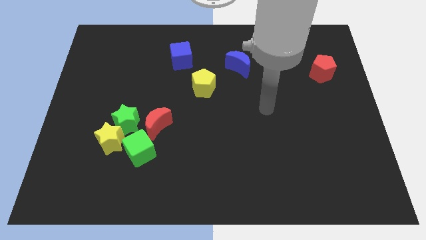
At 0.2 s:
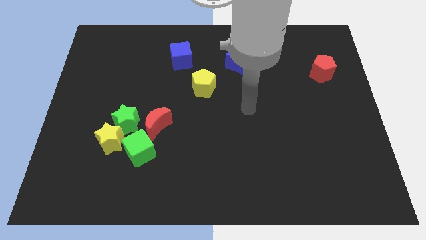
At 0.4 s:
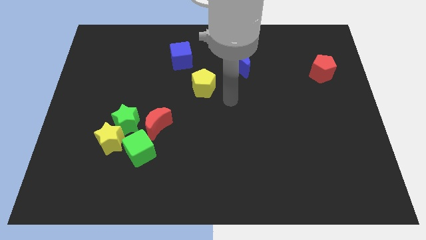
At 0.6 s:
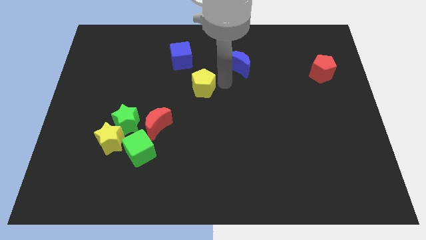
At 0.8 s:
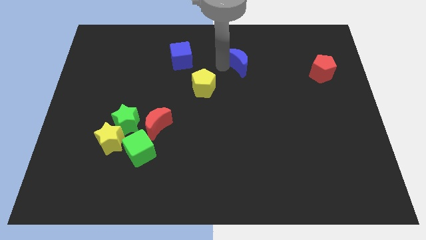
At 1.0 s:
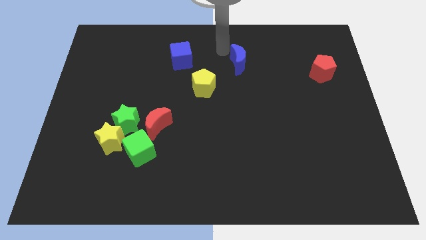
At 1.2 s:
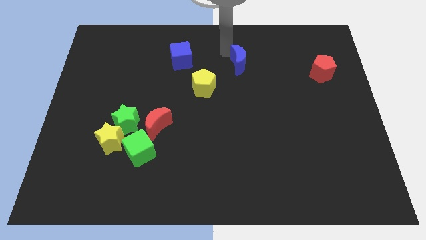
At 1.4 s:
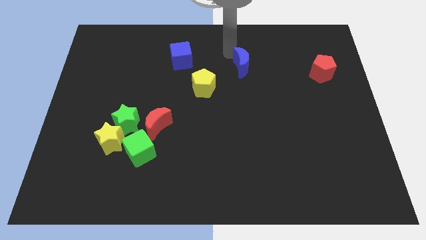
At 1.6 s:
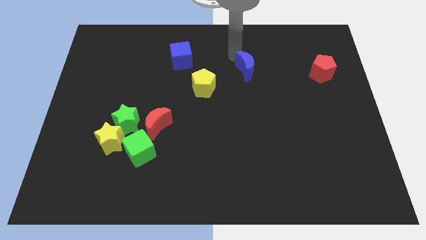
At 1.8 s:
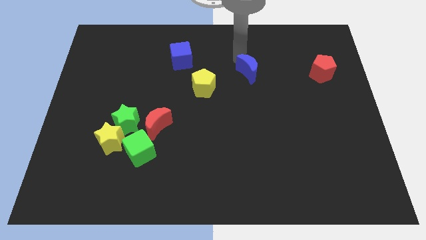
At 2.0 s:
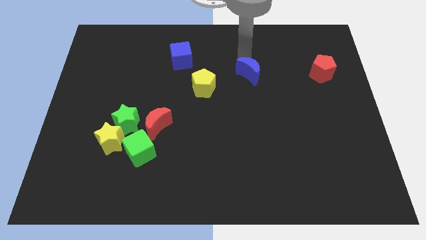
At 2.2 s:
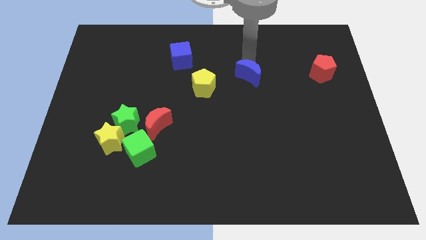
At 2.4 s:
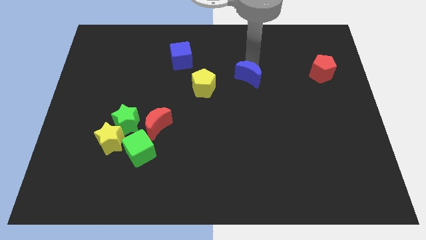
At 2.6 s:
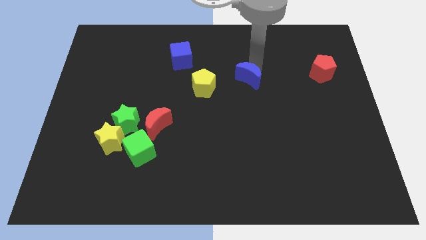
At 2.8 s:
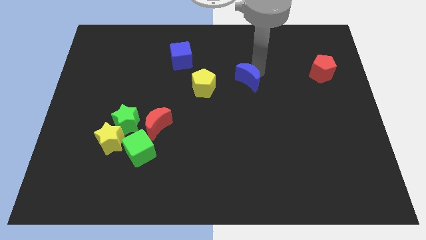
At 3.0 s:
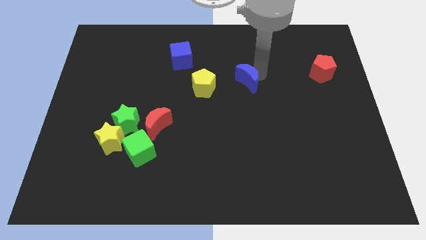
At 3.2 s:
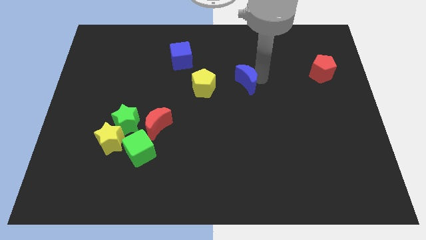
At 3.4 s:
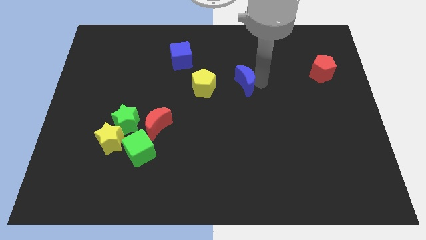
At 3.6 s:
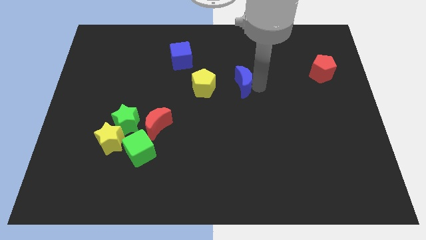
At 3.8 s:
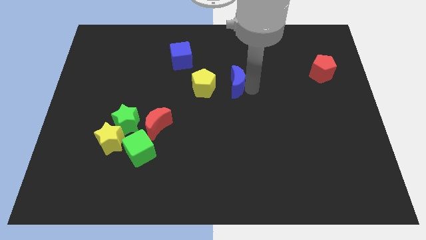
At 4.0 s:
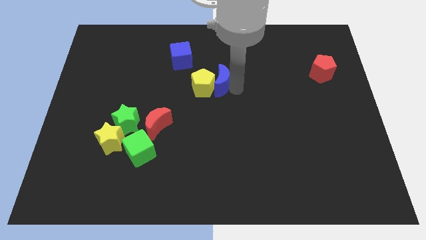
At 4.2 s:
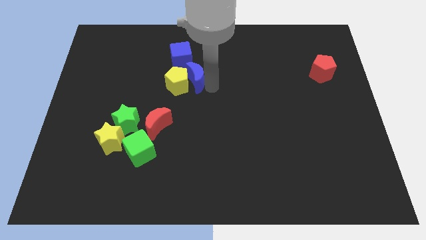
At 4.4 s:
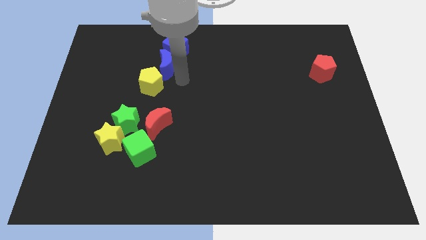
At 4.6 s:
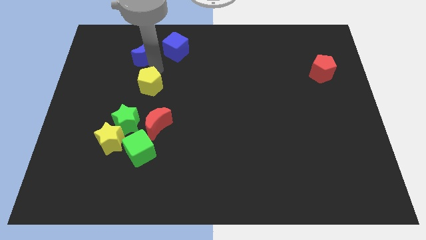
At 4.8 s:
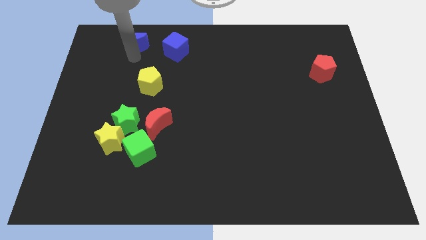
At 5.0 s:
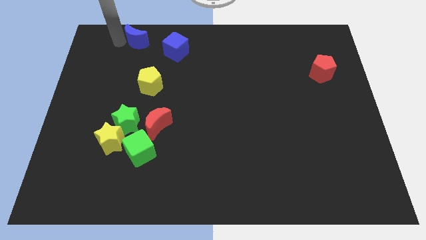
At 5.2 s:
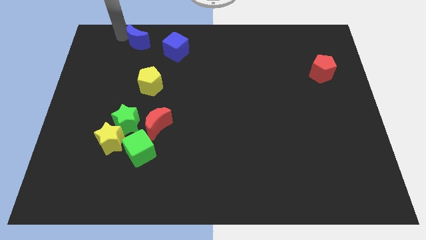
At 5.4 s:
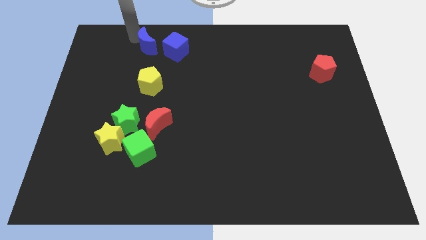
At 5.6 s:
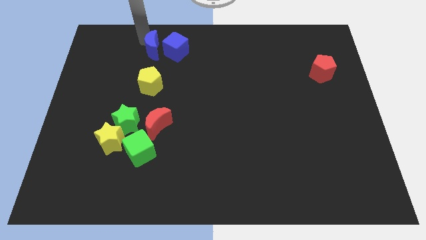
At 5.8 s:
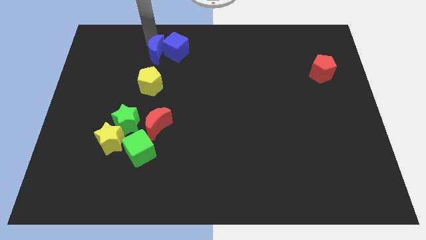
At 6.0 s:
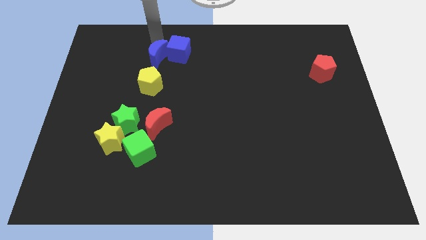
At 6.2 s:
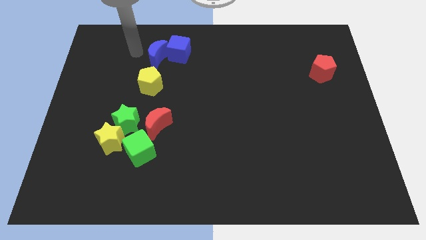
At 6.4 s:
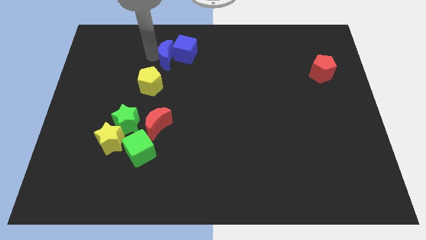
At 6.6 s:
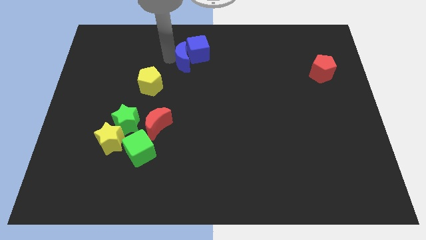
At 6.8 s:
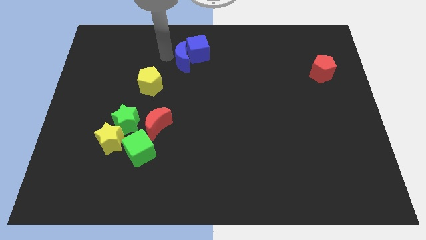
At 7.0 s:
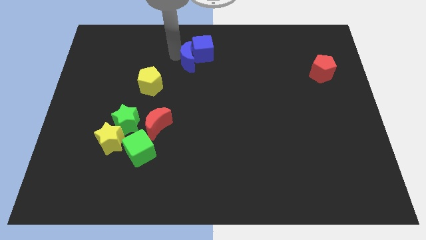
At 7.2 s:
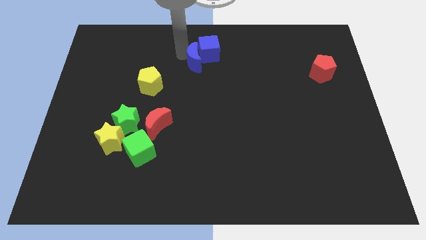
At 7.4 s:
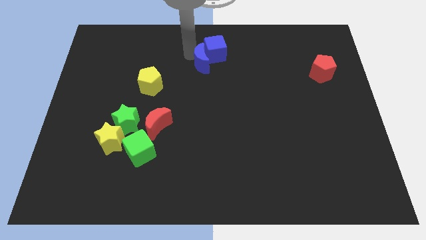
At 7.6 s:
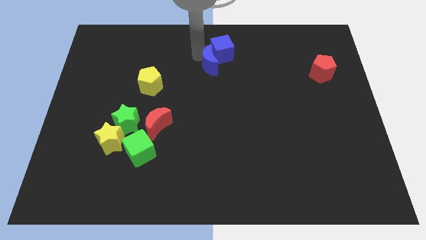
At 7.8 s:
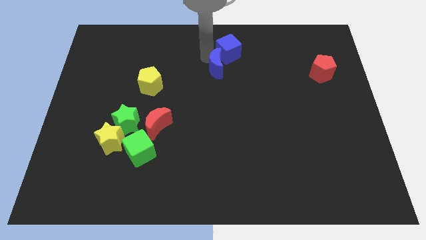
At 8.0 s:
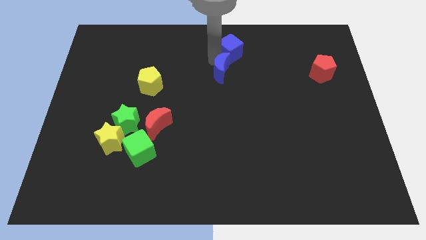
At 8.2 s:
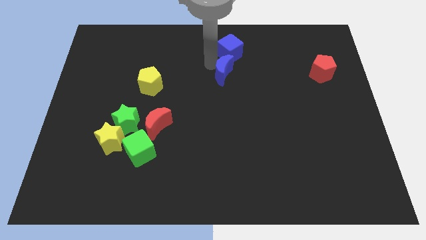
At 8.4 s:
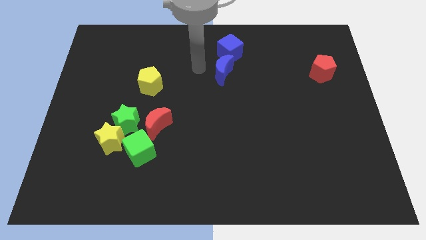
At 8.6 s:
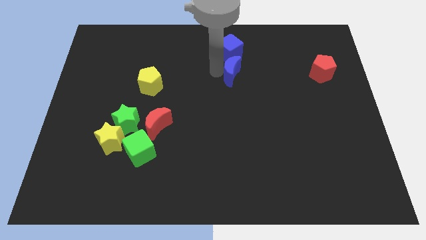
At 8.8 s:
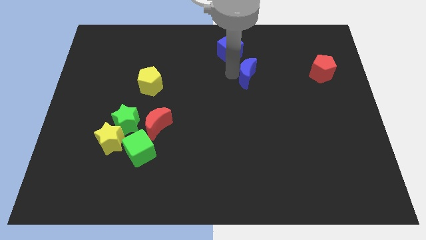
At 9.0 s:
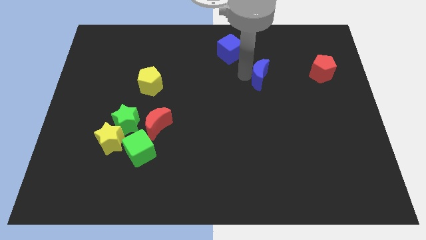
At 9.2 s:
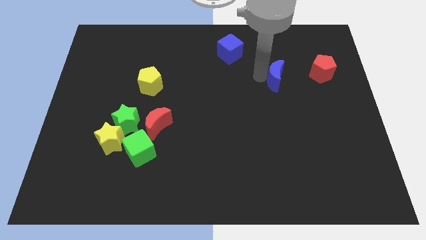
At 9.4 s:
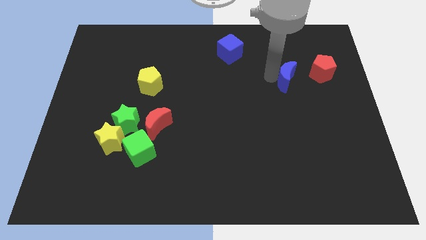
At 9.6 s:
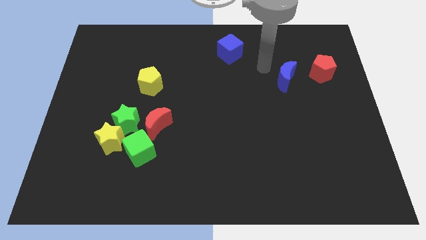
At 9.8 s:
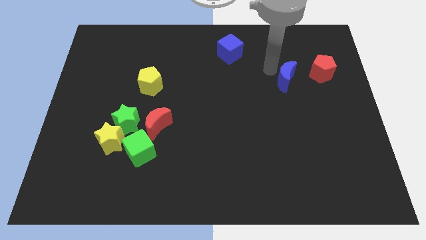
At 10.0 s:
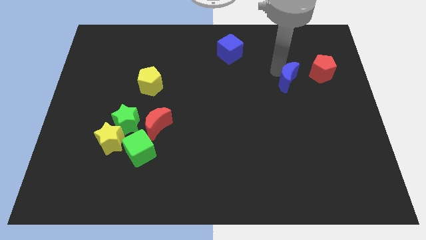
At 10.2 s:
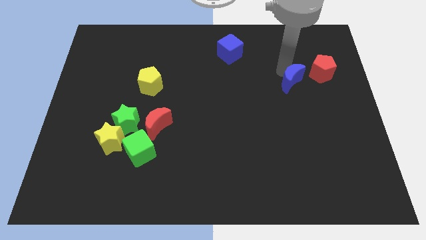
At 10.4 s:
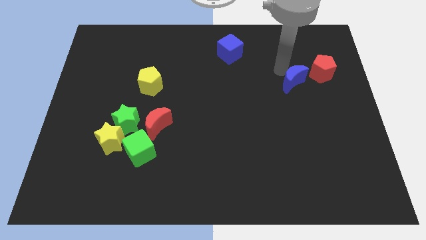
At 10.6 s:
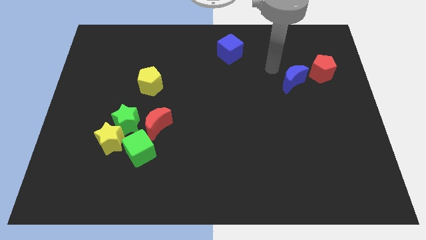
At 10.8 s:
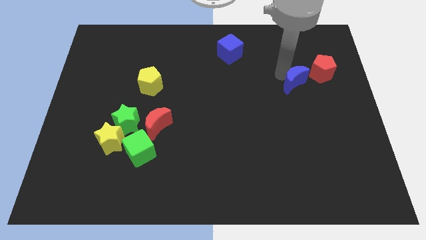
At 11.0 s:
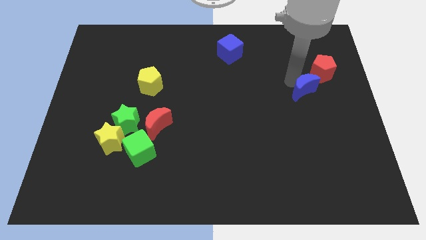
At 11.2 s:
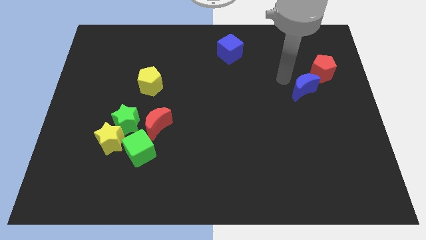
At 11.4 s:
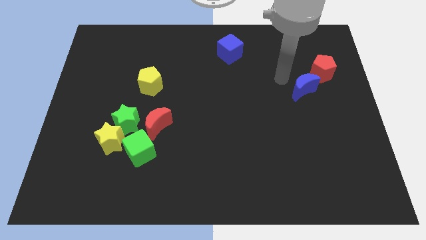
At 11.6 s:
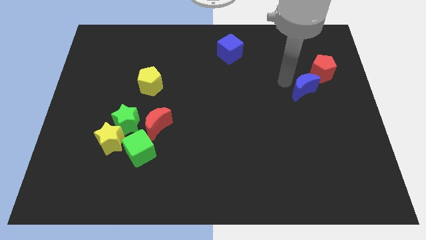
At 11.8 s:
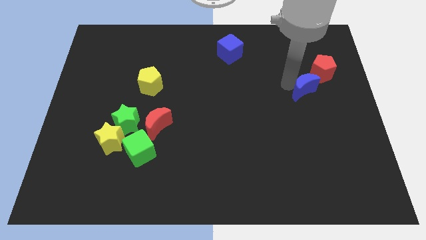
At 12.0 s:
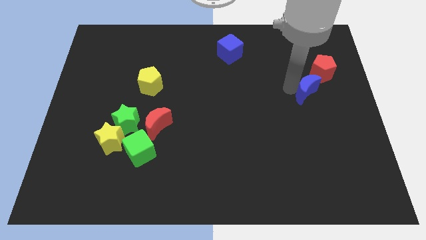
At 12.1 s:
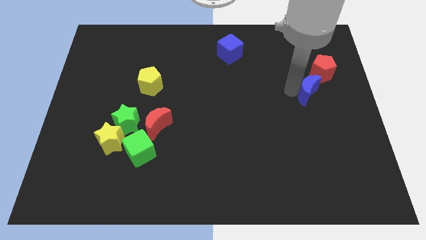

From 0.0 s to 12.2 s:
put the blue moon to the bottom side of the red pentagon

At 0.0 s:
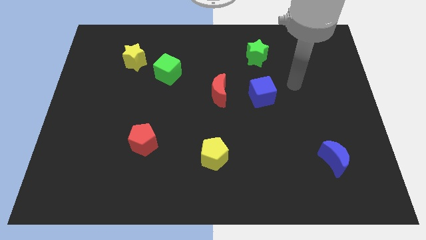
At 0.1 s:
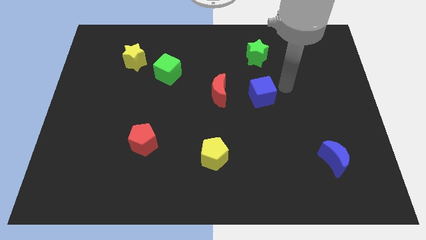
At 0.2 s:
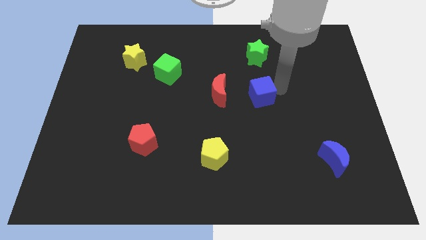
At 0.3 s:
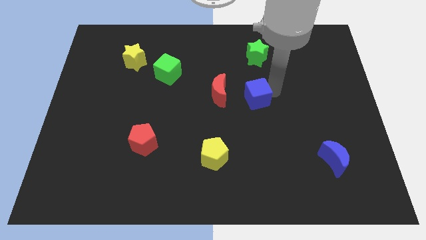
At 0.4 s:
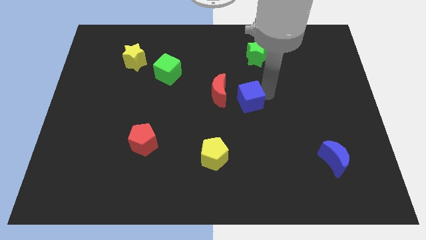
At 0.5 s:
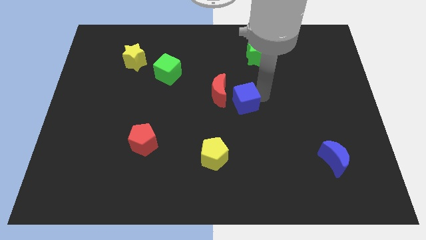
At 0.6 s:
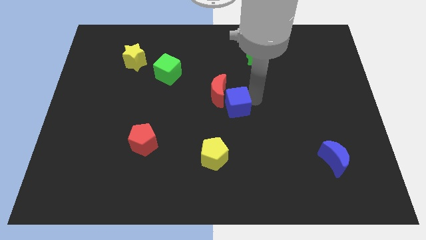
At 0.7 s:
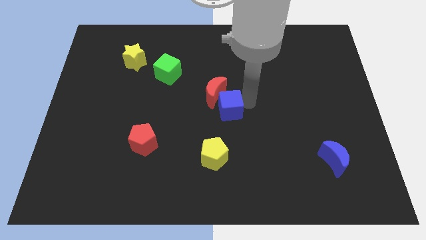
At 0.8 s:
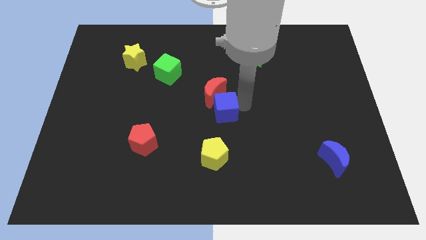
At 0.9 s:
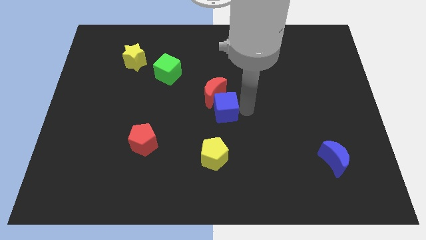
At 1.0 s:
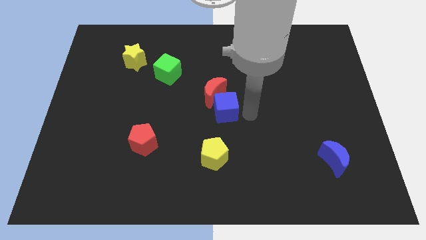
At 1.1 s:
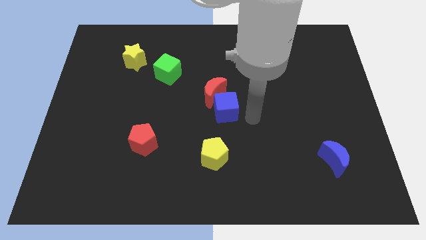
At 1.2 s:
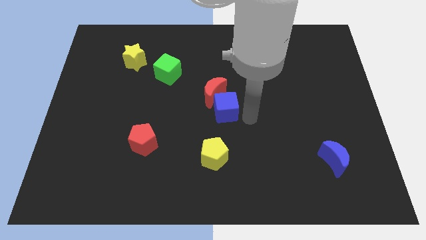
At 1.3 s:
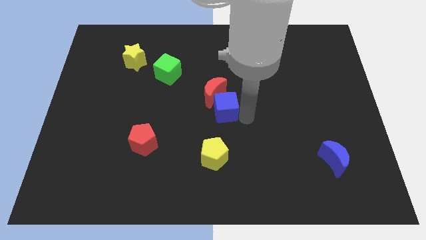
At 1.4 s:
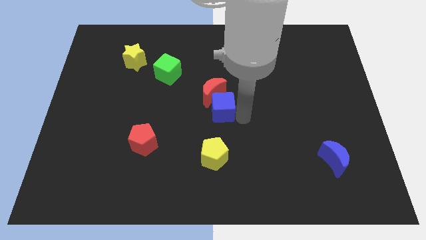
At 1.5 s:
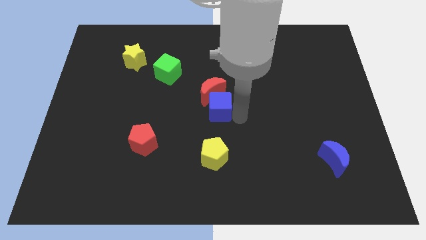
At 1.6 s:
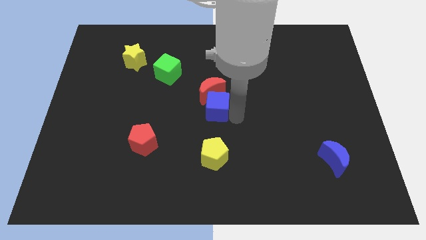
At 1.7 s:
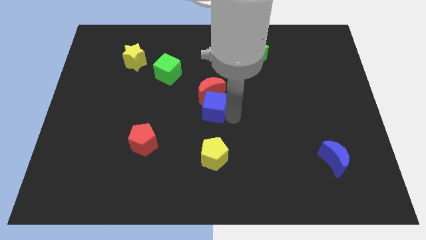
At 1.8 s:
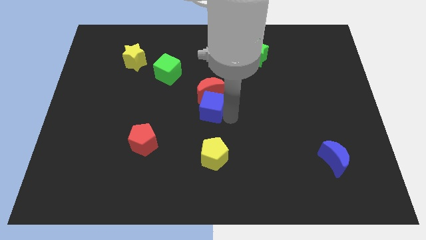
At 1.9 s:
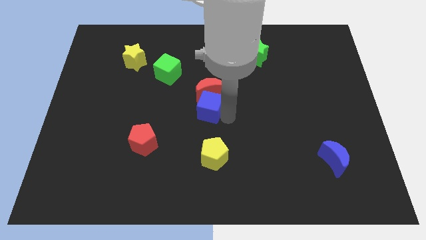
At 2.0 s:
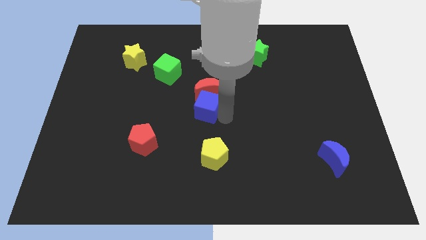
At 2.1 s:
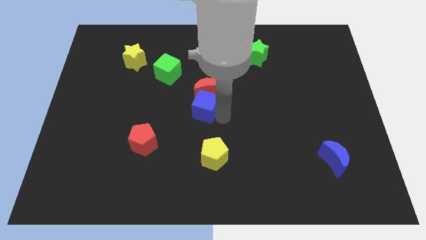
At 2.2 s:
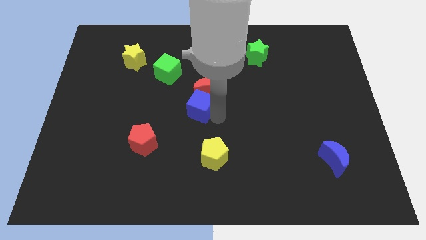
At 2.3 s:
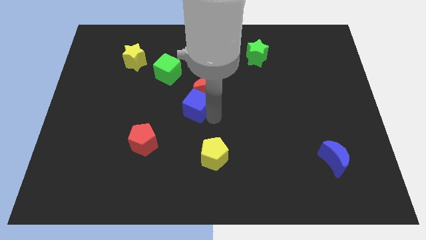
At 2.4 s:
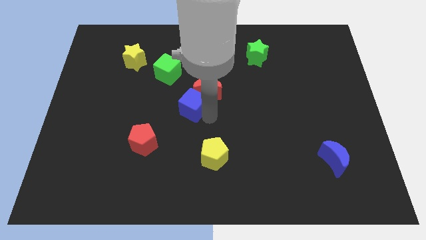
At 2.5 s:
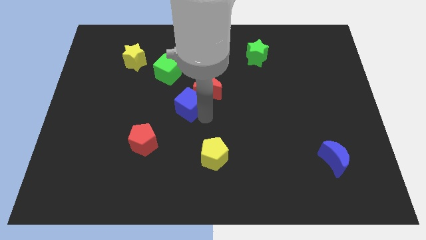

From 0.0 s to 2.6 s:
put the blue cube just left of the red moon
